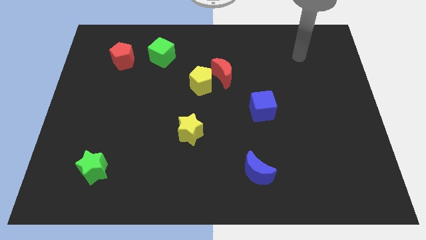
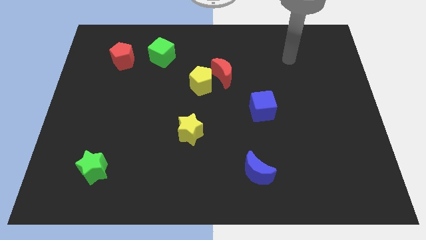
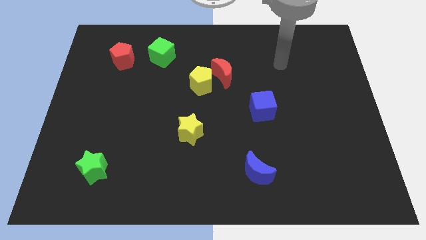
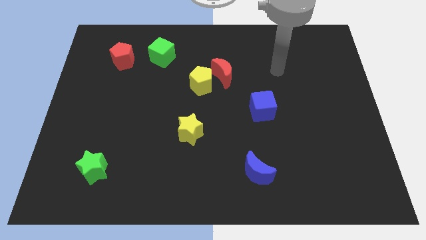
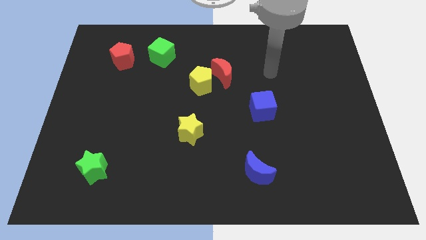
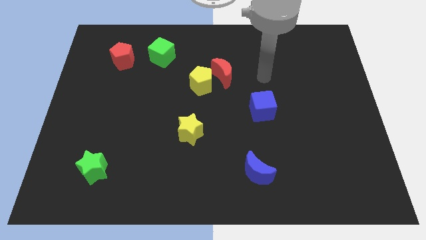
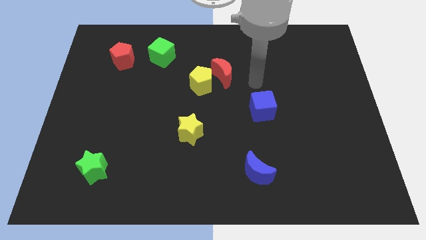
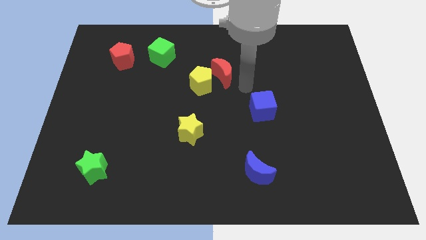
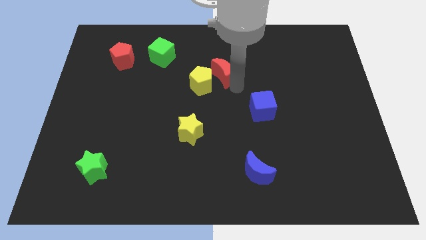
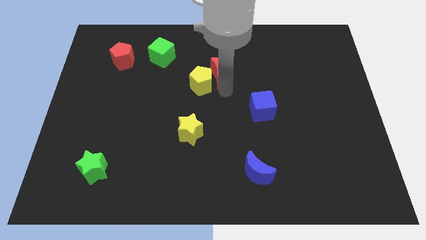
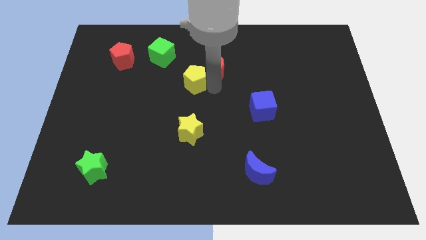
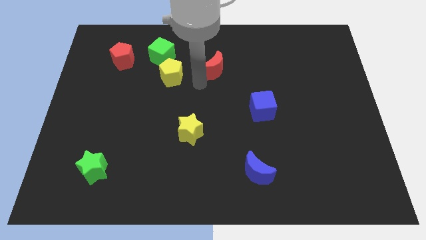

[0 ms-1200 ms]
move the red moon away from the yellow pentagon

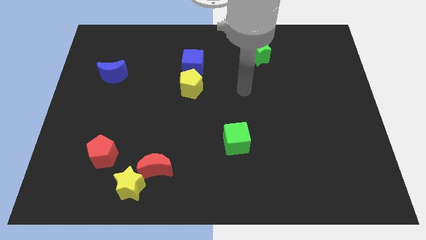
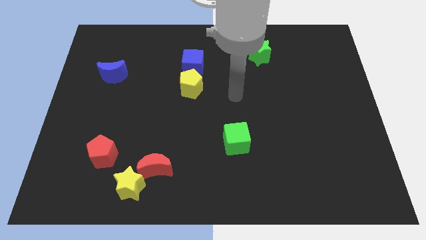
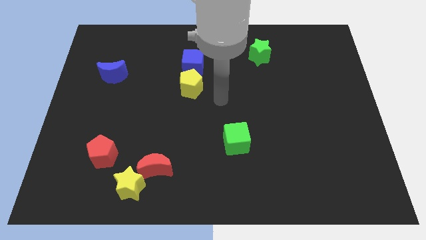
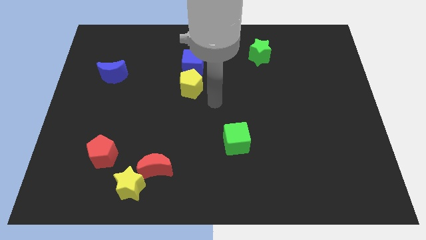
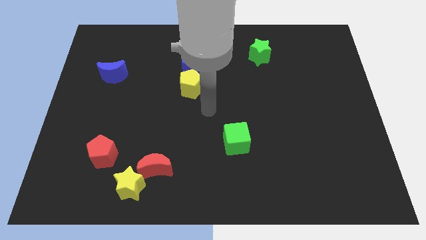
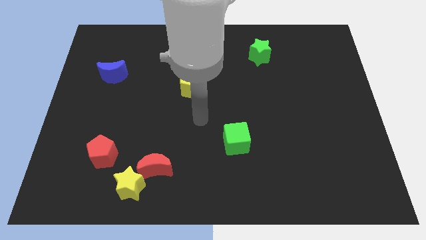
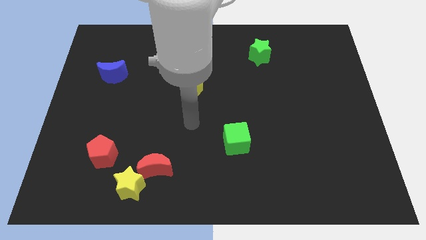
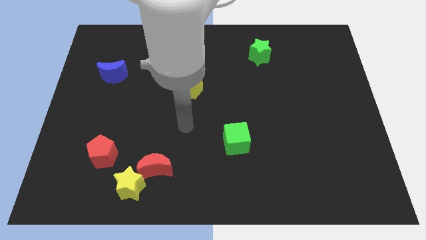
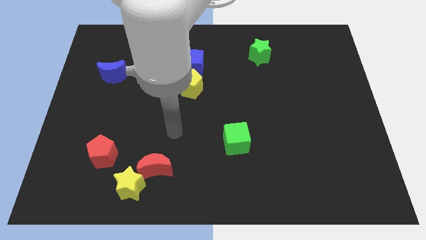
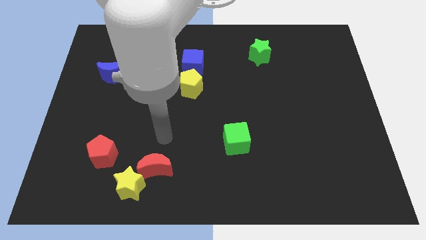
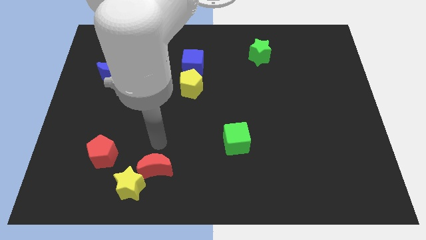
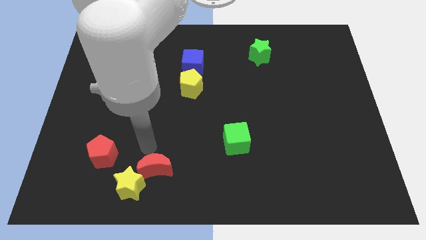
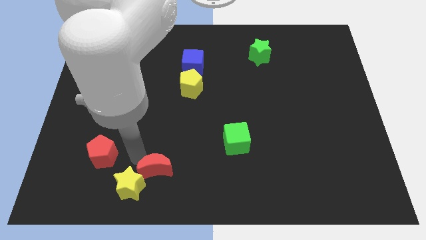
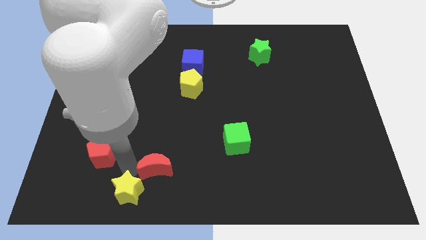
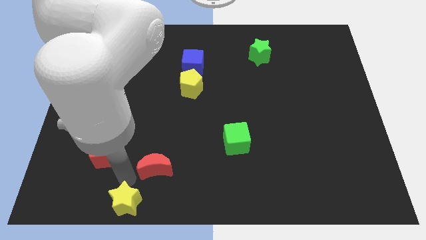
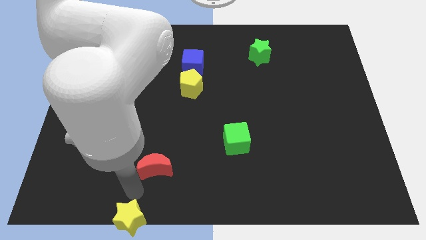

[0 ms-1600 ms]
pull the red moon apart from the yellow star

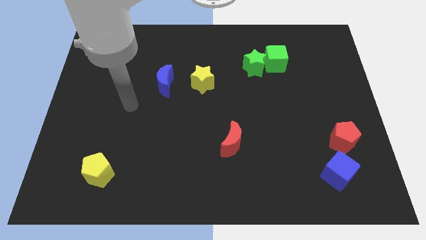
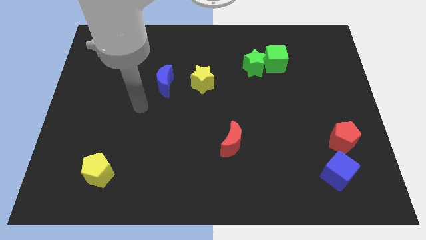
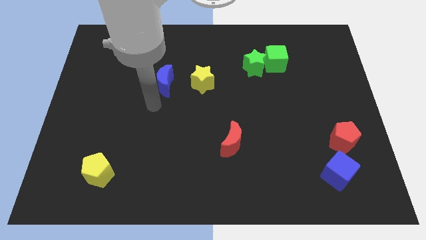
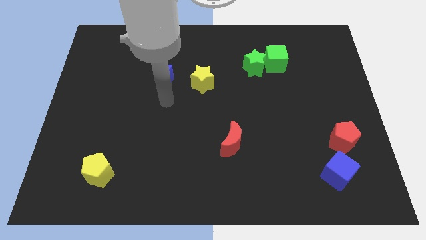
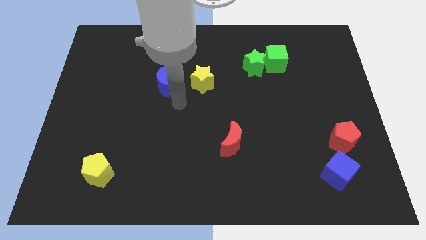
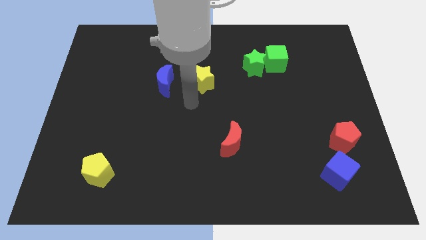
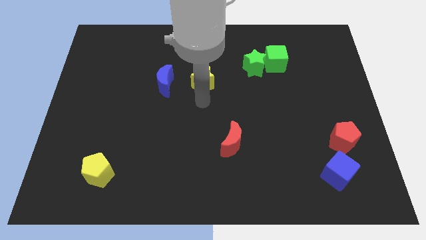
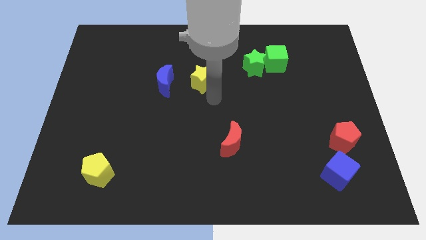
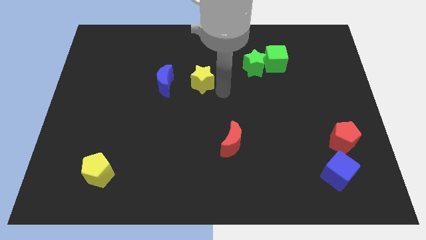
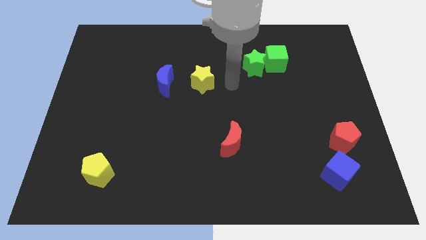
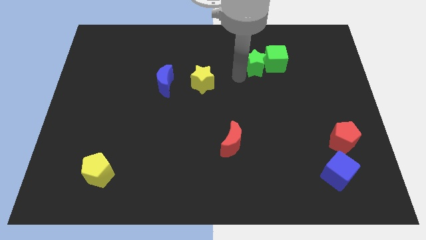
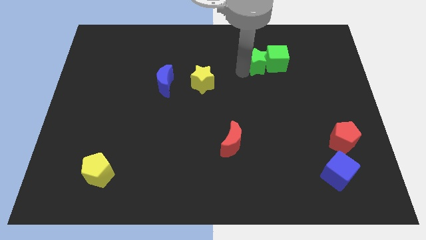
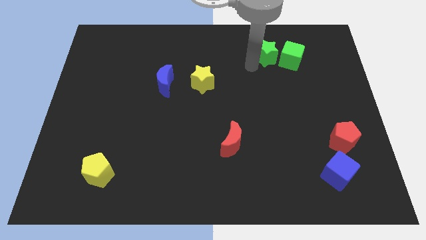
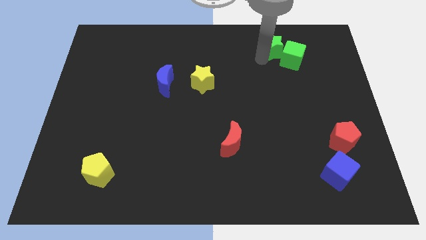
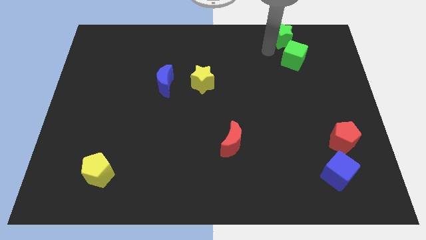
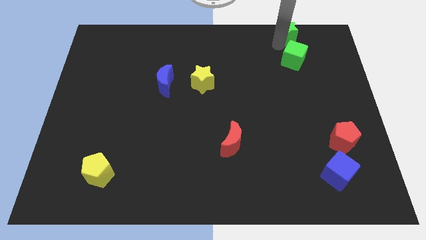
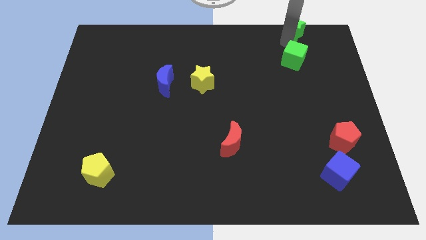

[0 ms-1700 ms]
separate the green cube from the green star

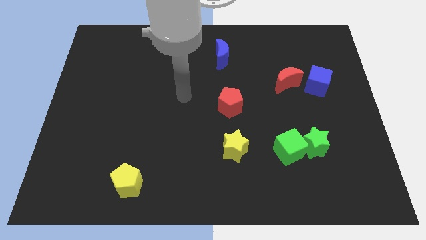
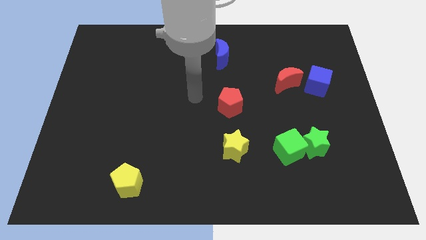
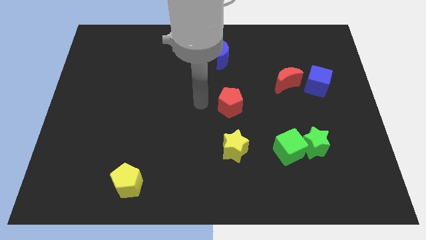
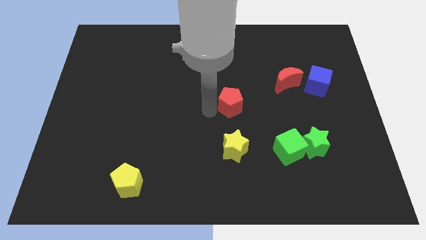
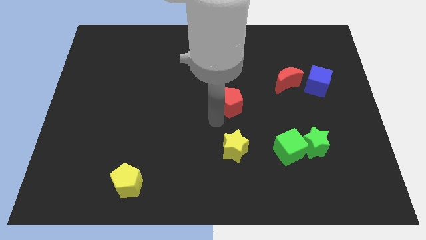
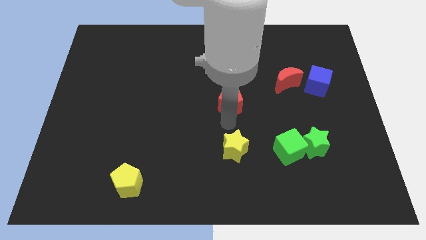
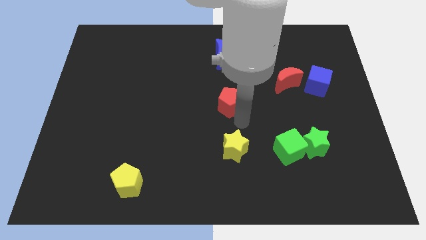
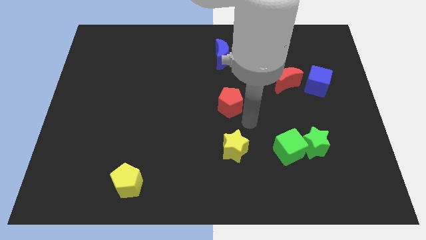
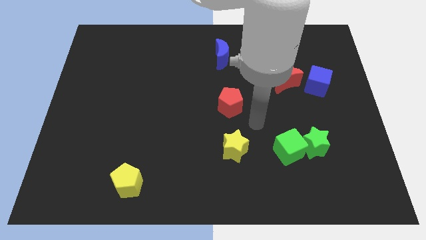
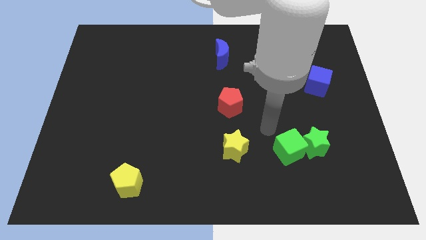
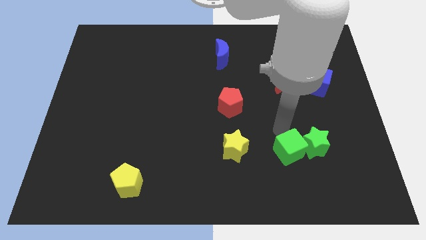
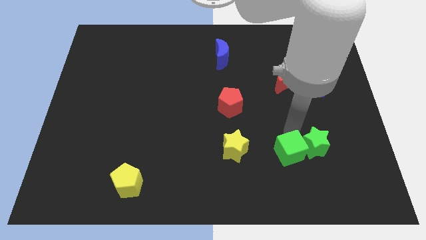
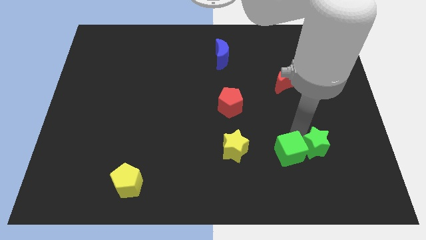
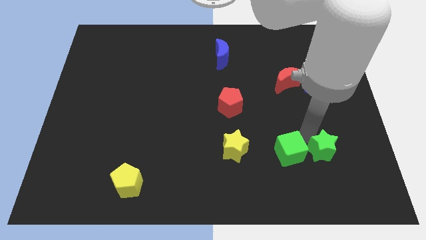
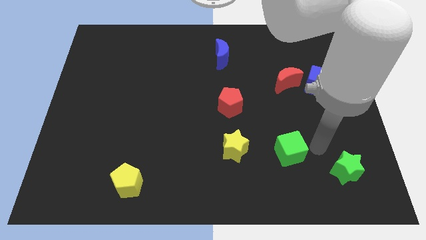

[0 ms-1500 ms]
pull the green cube apart from the green star

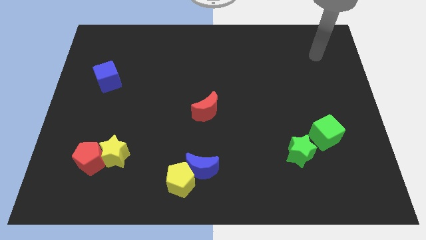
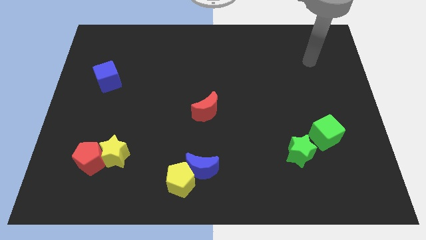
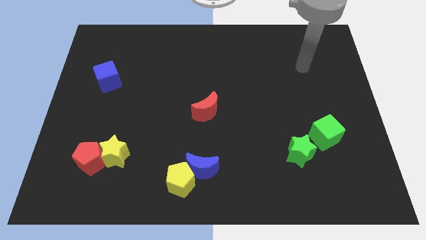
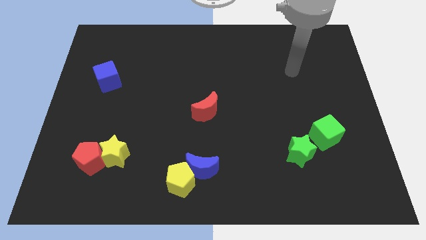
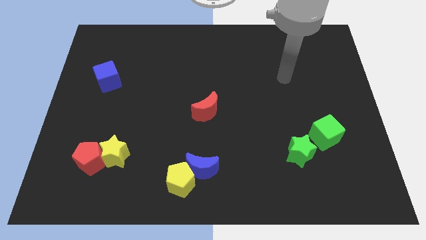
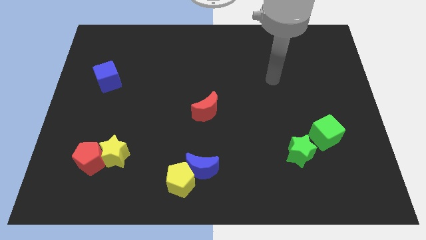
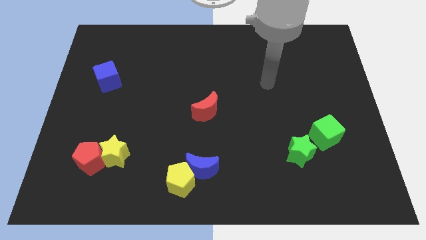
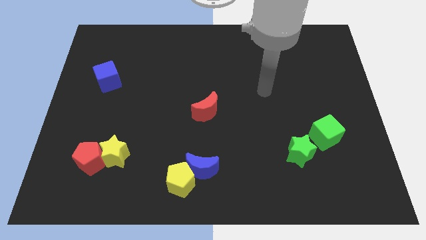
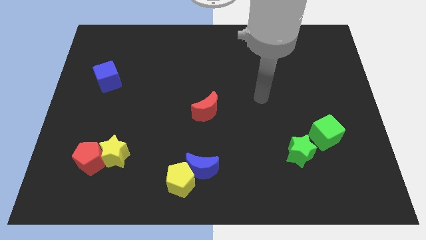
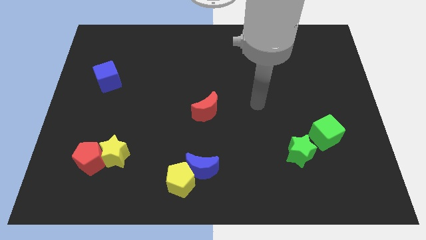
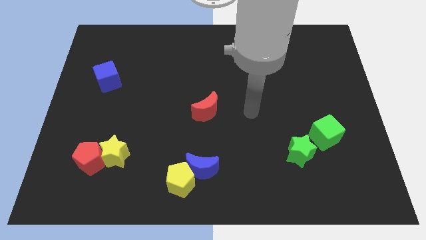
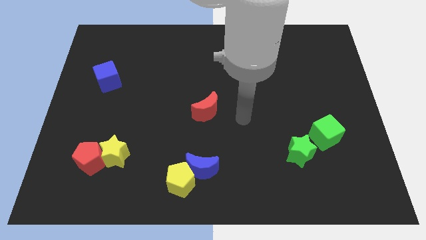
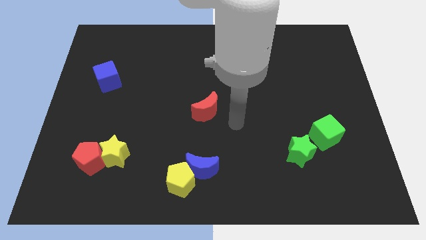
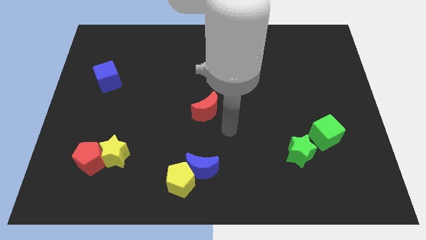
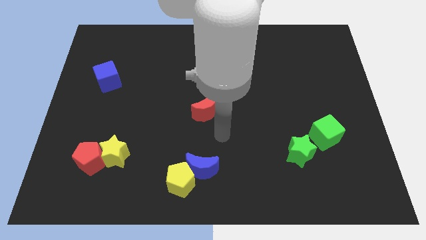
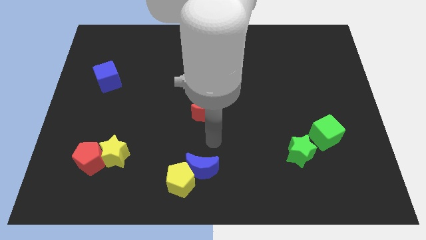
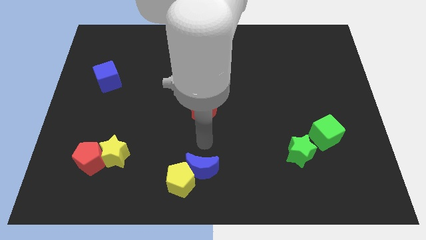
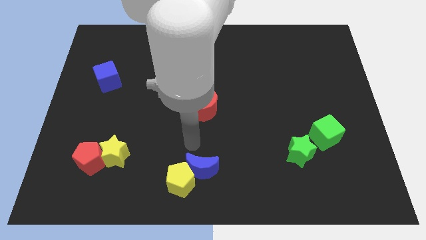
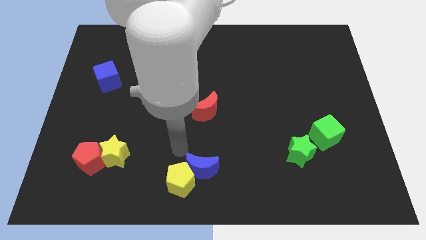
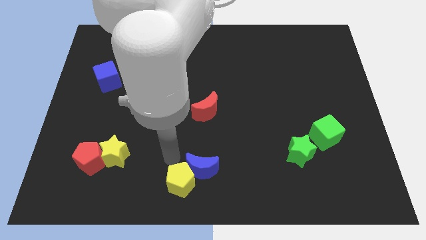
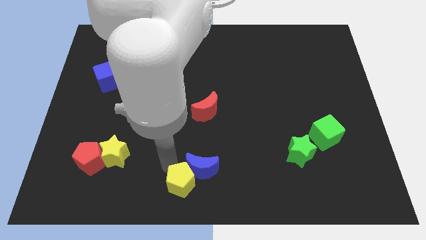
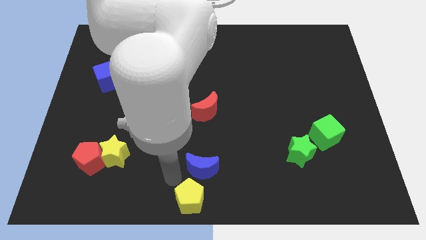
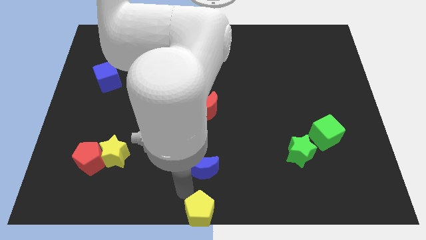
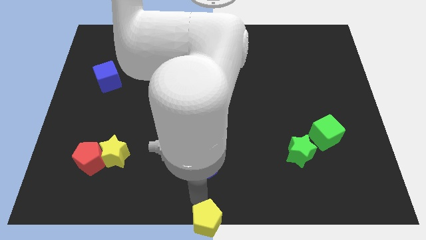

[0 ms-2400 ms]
pull the blue moon apart from the yellow pentagon

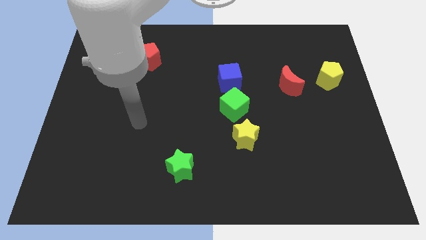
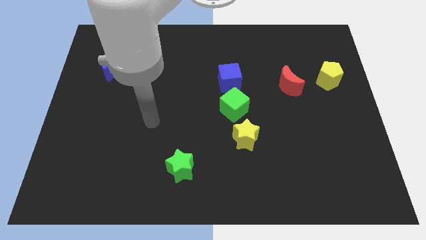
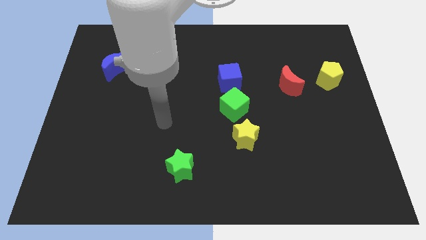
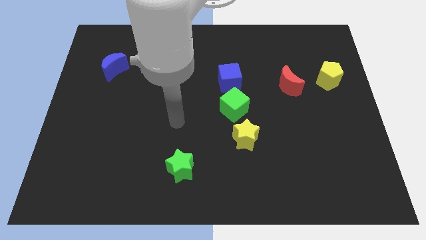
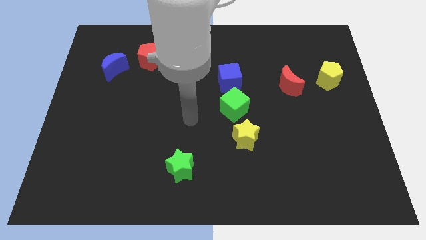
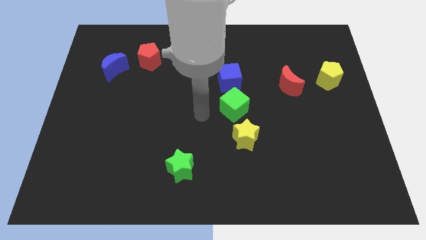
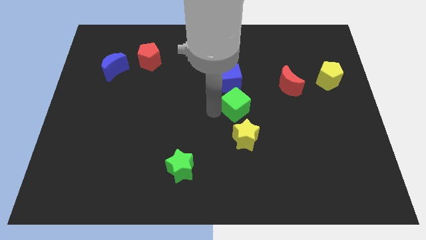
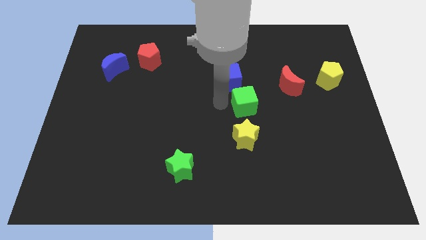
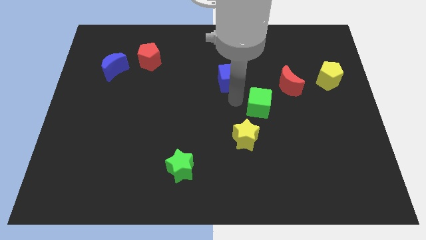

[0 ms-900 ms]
pull the blue cube apart from the green cube
